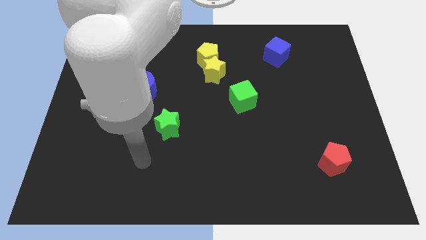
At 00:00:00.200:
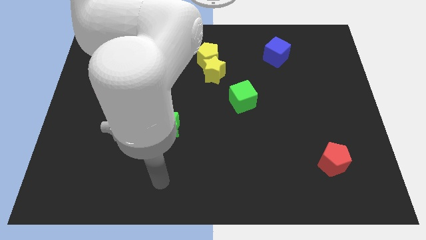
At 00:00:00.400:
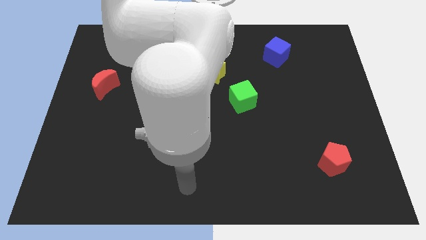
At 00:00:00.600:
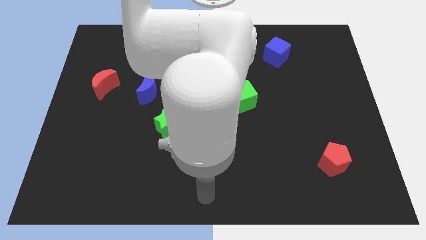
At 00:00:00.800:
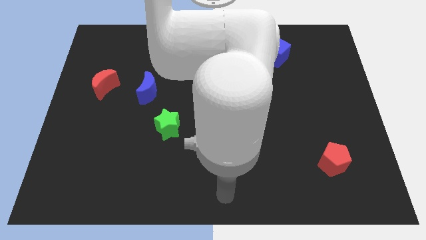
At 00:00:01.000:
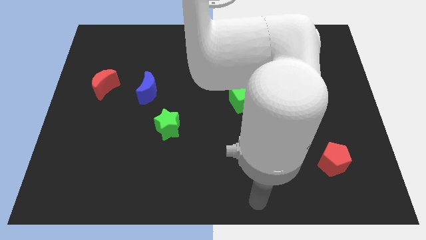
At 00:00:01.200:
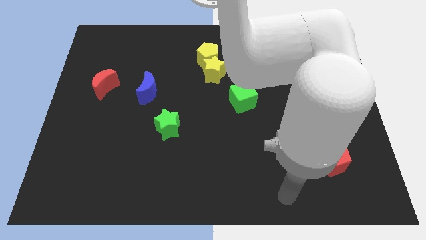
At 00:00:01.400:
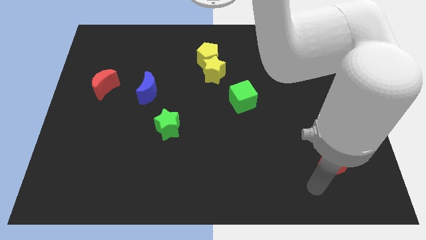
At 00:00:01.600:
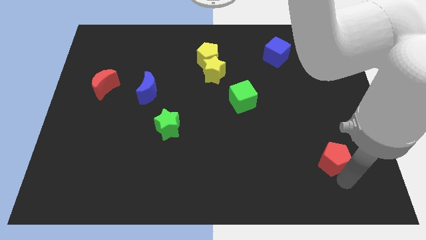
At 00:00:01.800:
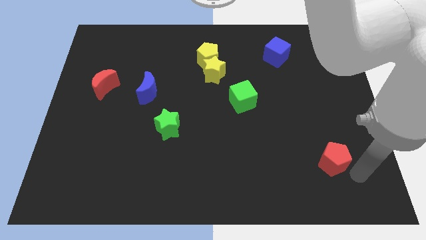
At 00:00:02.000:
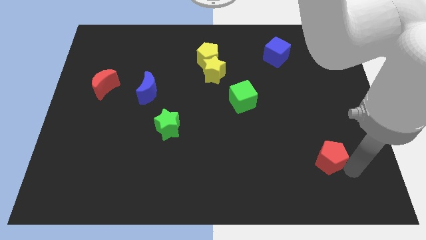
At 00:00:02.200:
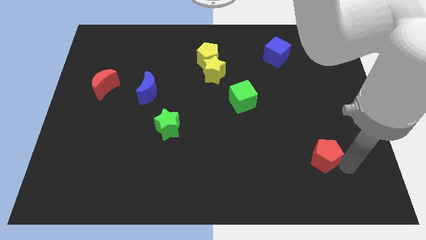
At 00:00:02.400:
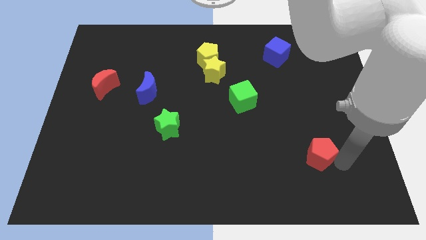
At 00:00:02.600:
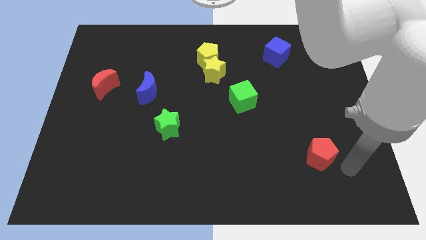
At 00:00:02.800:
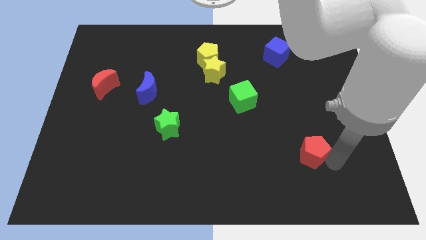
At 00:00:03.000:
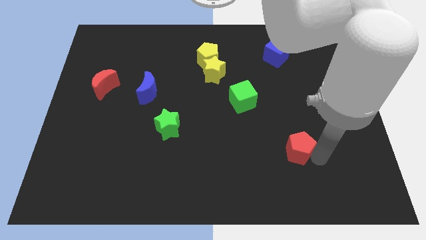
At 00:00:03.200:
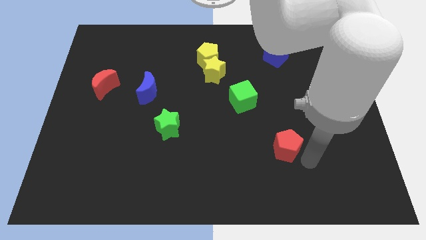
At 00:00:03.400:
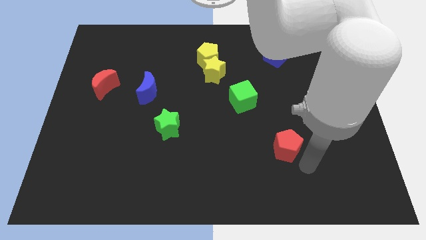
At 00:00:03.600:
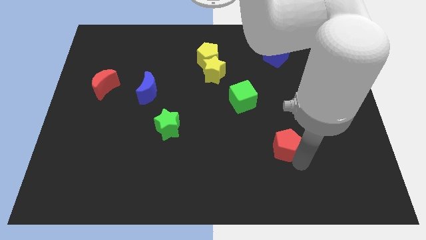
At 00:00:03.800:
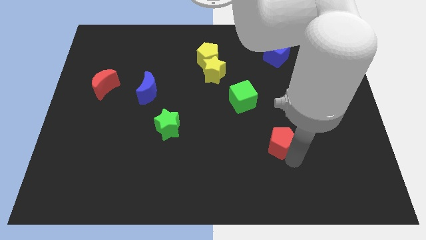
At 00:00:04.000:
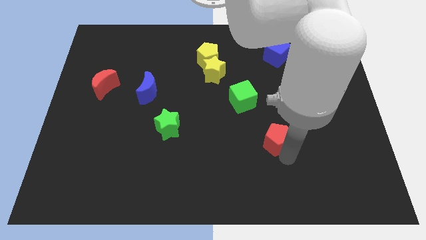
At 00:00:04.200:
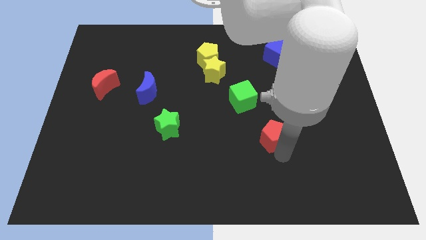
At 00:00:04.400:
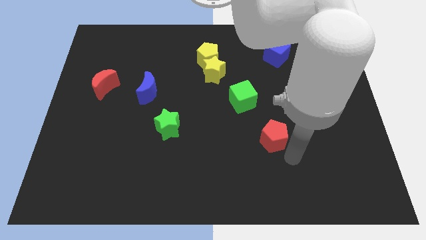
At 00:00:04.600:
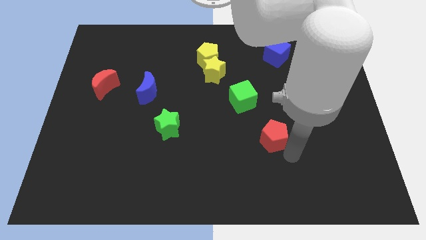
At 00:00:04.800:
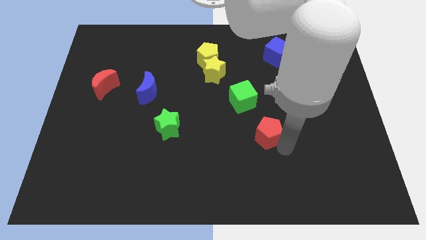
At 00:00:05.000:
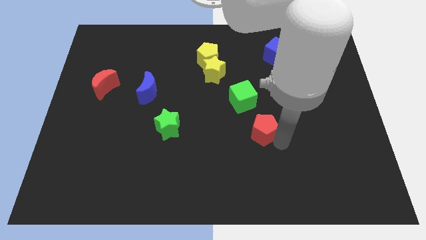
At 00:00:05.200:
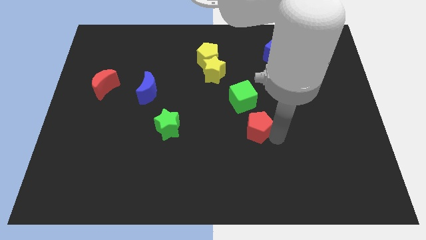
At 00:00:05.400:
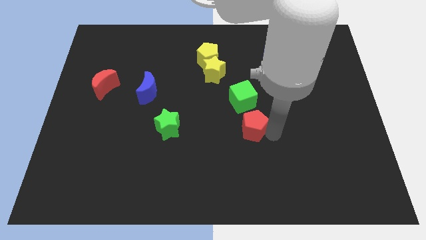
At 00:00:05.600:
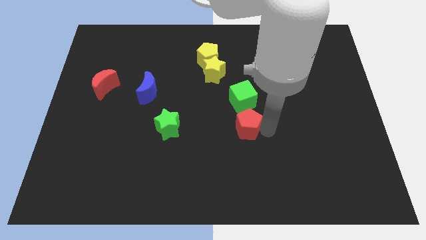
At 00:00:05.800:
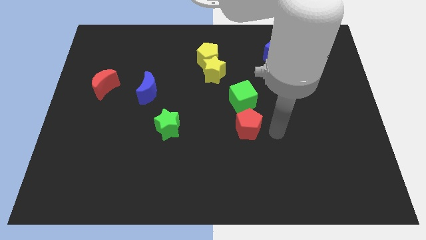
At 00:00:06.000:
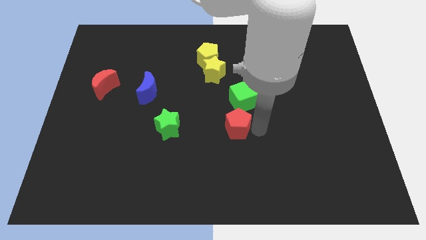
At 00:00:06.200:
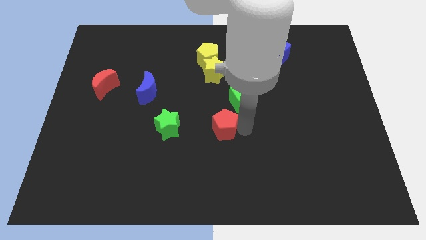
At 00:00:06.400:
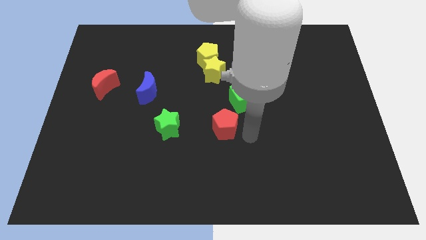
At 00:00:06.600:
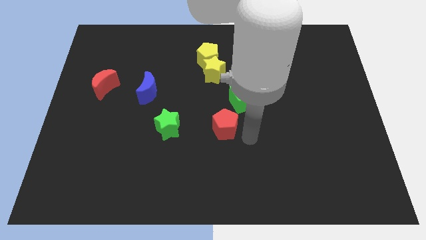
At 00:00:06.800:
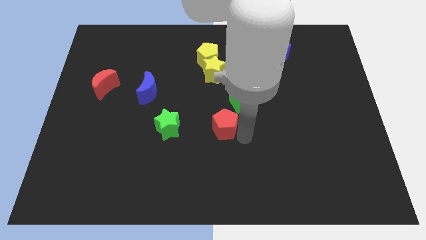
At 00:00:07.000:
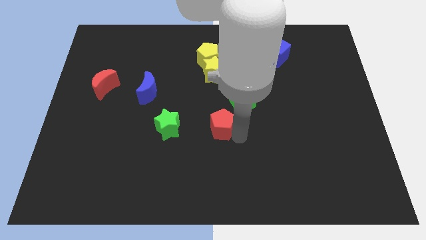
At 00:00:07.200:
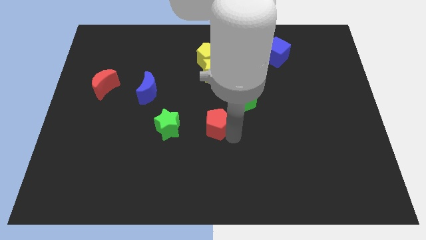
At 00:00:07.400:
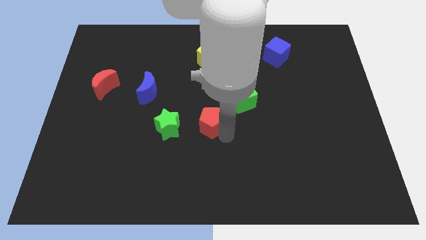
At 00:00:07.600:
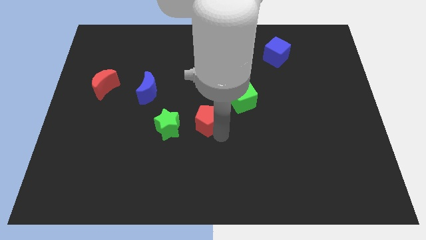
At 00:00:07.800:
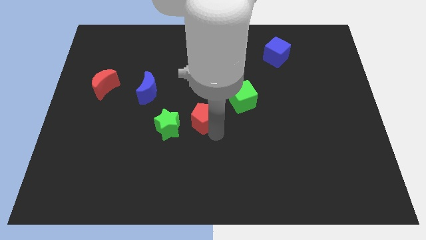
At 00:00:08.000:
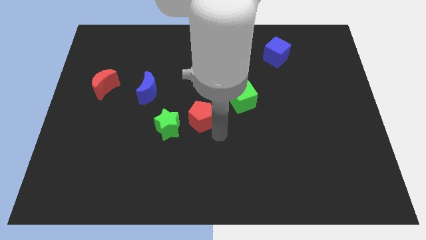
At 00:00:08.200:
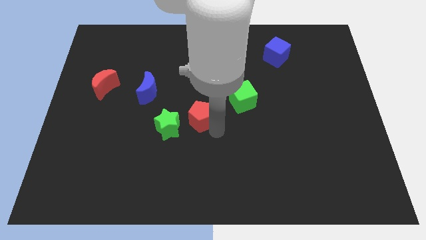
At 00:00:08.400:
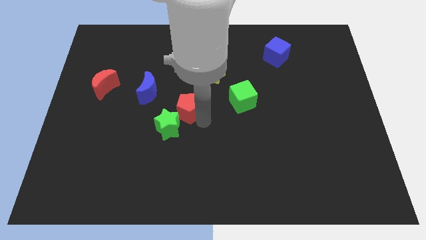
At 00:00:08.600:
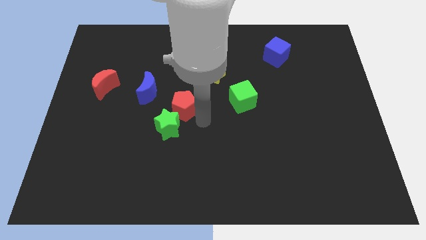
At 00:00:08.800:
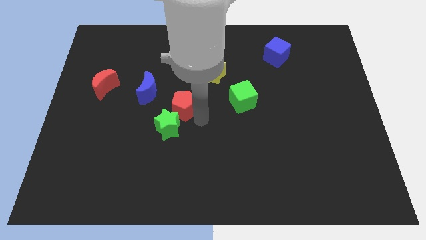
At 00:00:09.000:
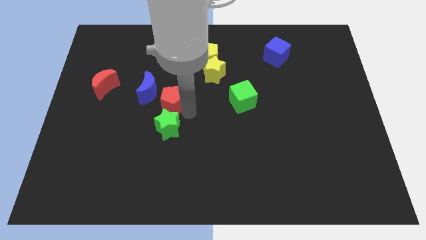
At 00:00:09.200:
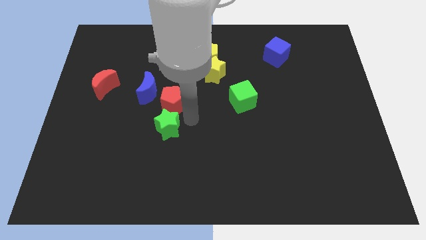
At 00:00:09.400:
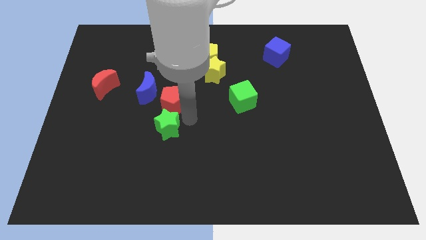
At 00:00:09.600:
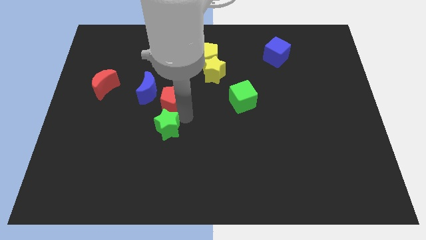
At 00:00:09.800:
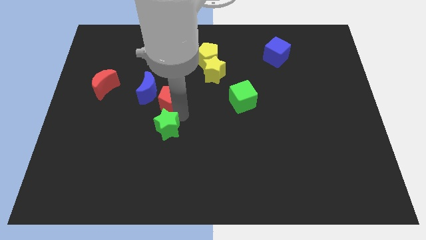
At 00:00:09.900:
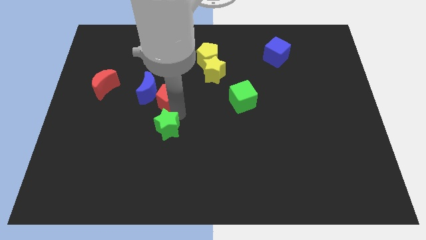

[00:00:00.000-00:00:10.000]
slide the red pentagon towards the blue moon

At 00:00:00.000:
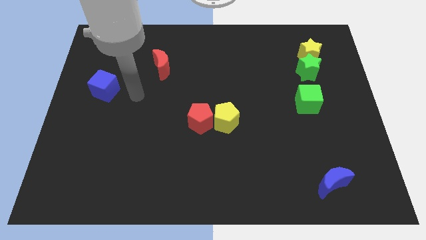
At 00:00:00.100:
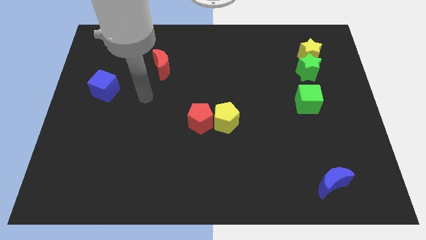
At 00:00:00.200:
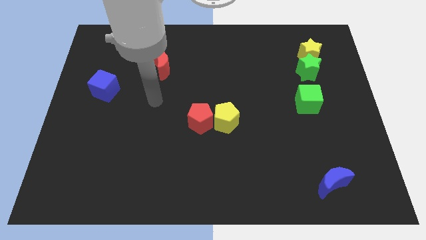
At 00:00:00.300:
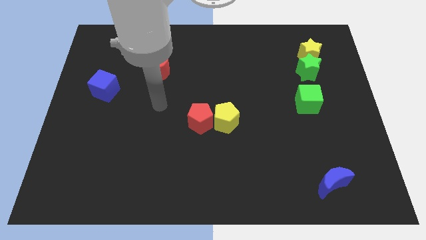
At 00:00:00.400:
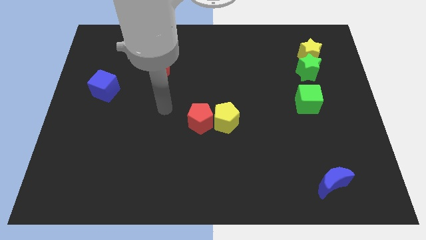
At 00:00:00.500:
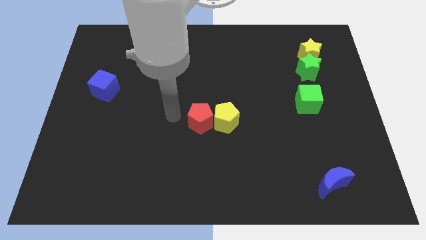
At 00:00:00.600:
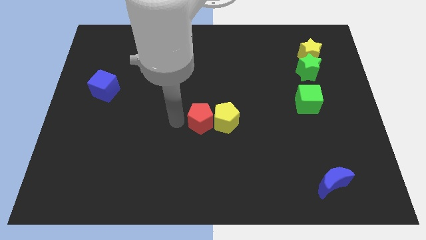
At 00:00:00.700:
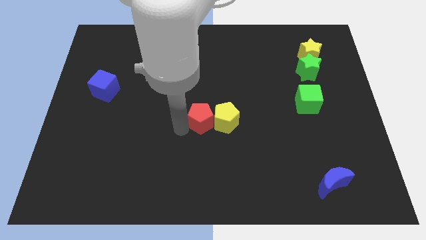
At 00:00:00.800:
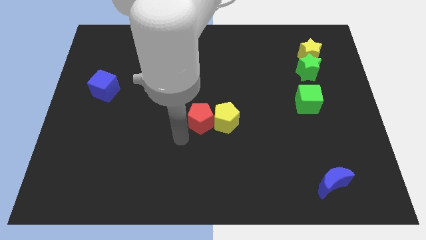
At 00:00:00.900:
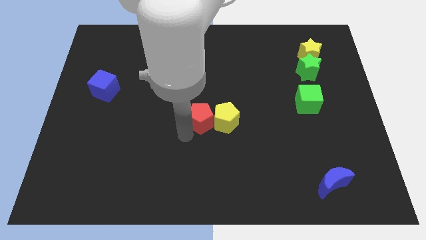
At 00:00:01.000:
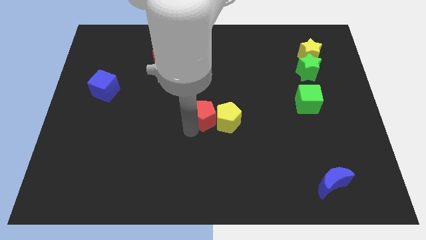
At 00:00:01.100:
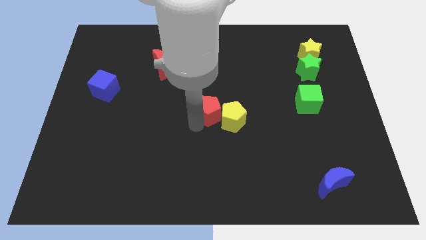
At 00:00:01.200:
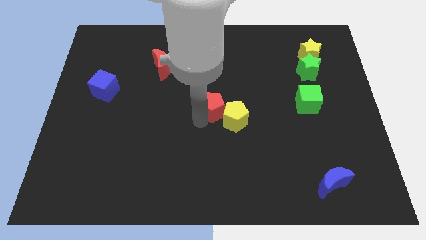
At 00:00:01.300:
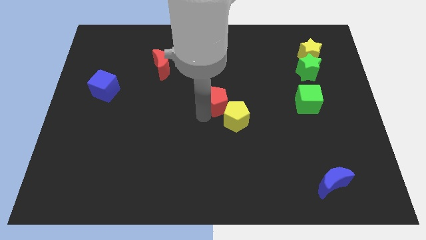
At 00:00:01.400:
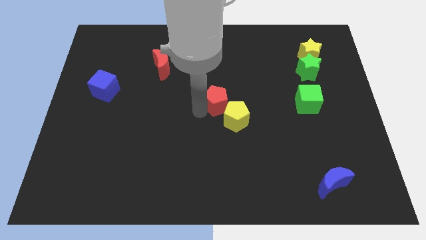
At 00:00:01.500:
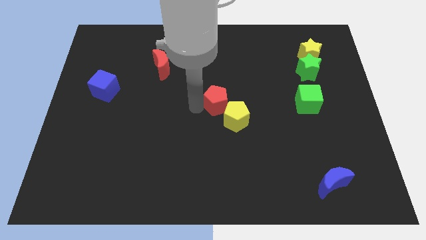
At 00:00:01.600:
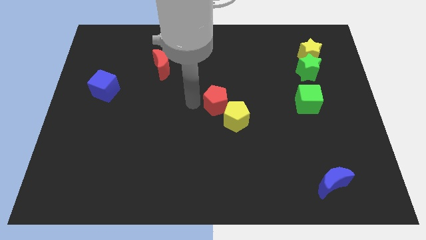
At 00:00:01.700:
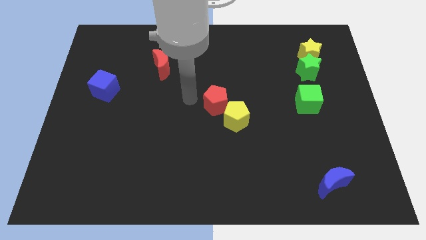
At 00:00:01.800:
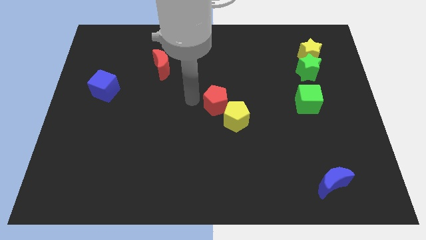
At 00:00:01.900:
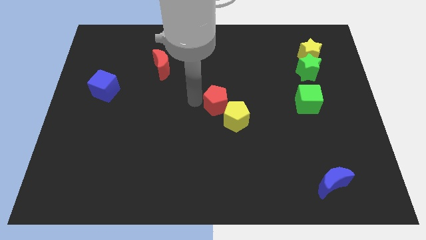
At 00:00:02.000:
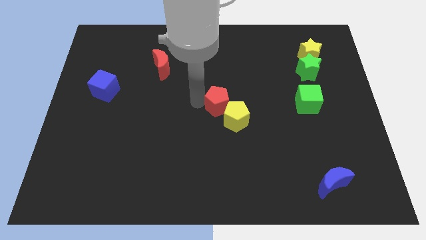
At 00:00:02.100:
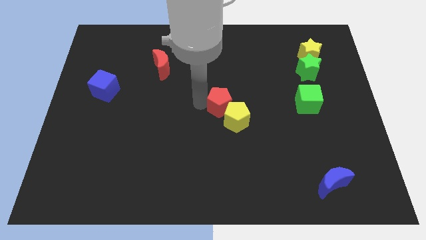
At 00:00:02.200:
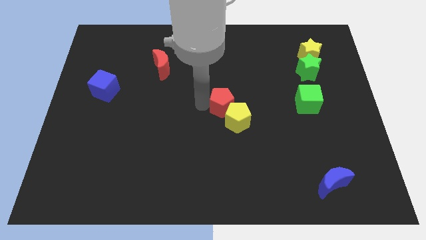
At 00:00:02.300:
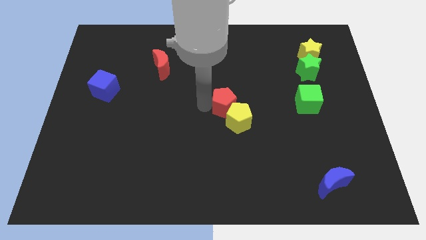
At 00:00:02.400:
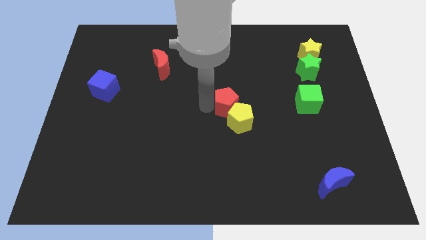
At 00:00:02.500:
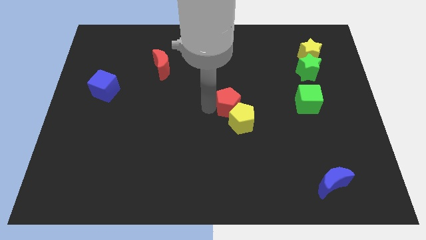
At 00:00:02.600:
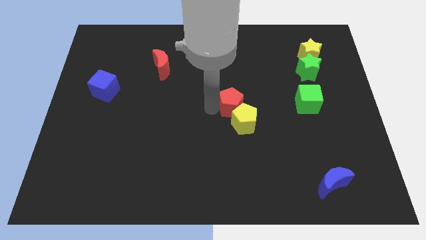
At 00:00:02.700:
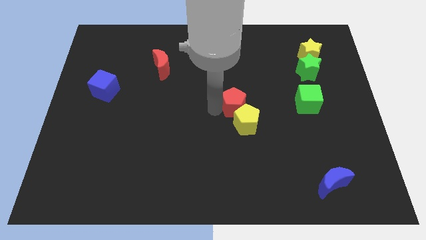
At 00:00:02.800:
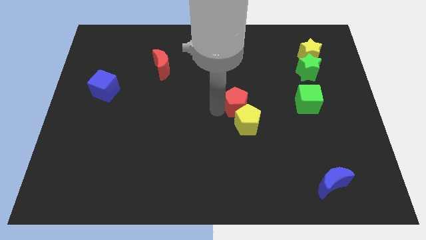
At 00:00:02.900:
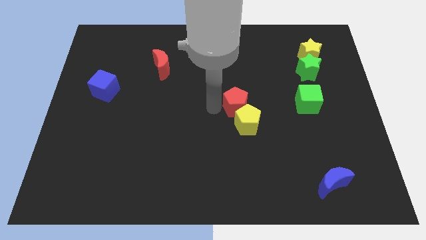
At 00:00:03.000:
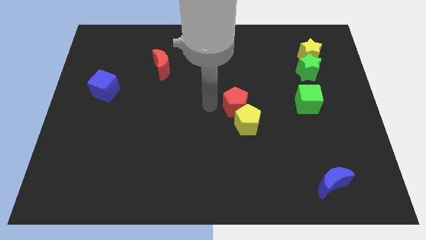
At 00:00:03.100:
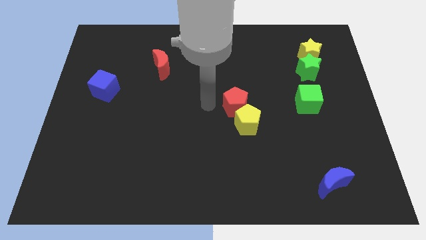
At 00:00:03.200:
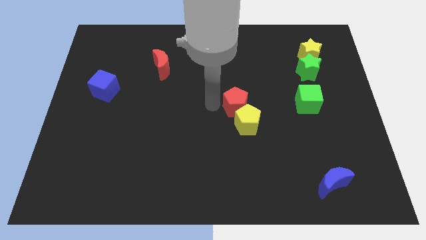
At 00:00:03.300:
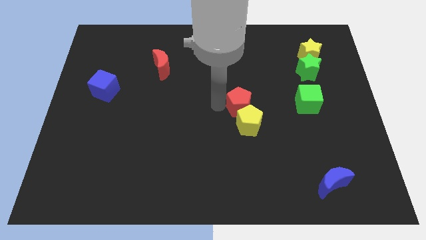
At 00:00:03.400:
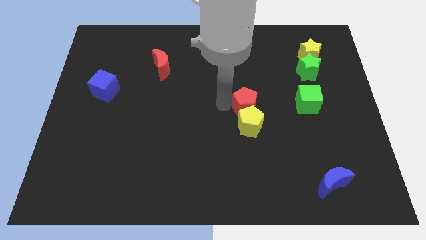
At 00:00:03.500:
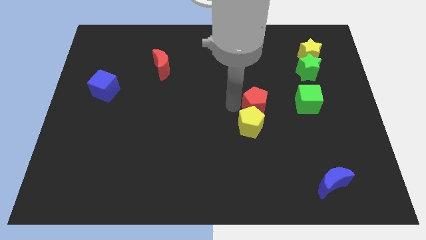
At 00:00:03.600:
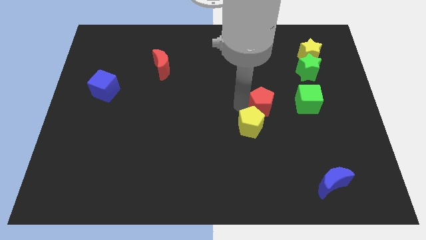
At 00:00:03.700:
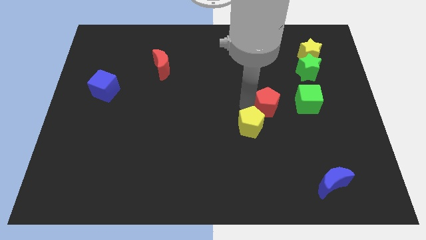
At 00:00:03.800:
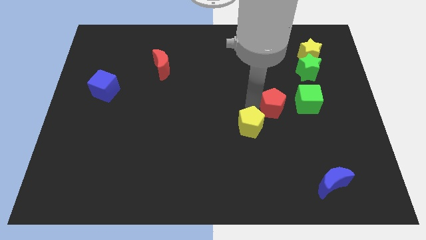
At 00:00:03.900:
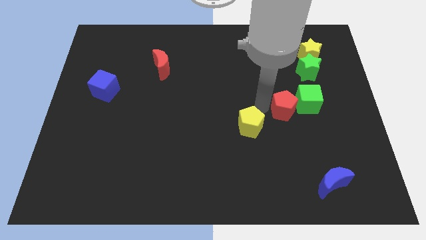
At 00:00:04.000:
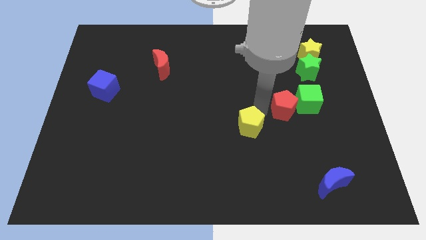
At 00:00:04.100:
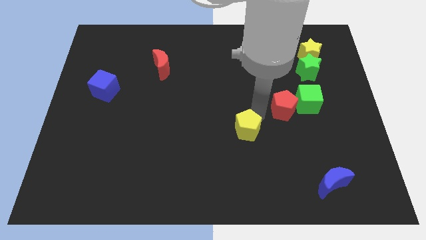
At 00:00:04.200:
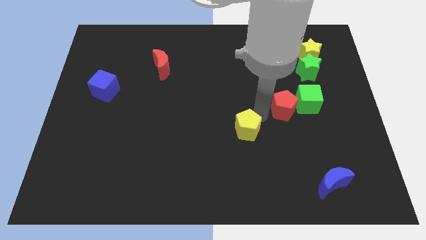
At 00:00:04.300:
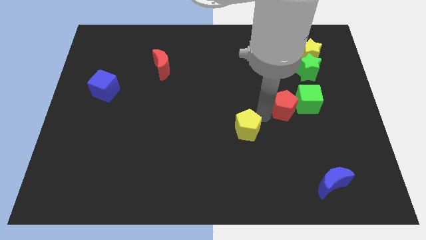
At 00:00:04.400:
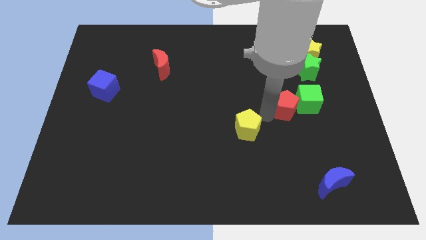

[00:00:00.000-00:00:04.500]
put the red pentagon close to the green cube
